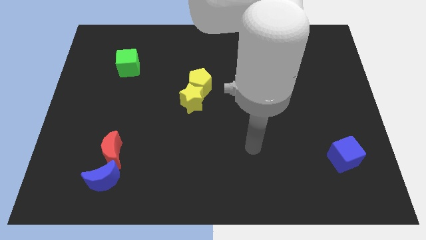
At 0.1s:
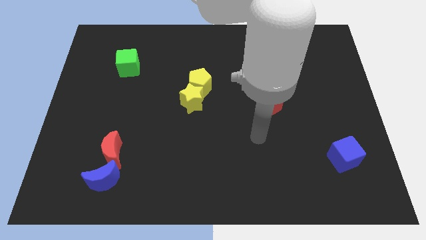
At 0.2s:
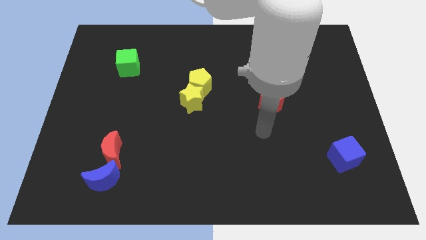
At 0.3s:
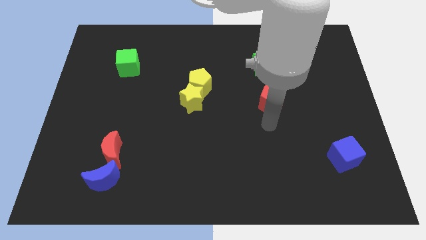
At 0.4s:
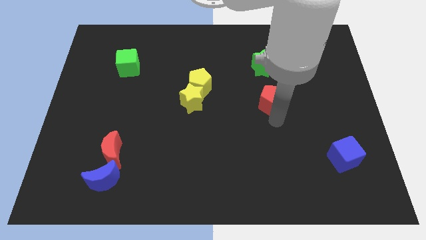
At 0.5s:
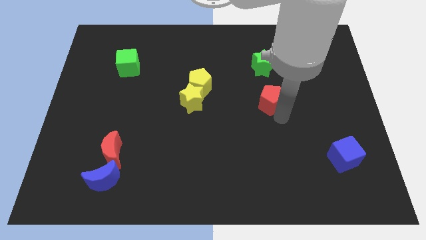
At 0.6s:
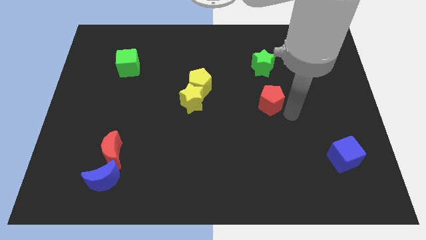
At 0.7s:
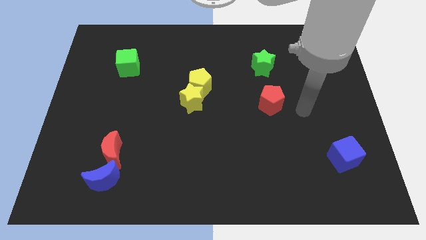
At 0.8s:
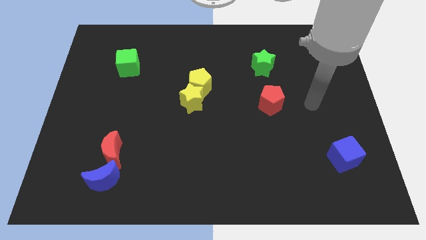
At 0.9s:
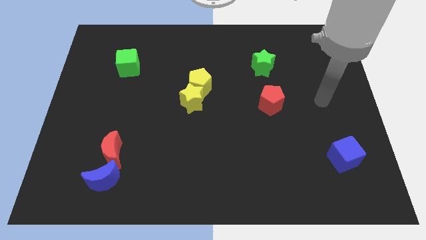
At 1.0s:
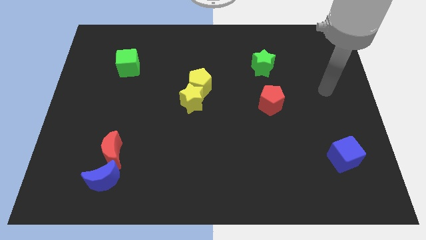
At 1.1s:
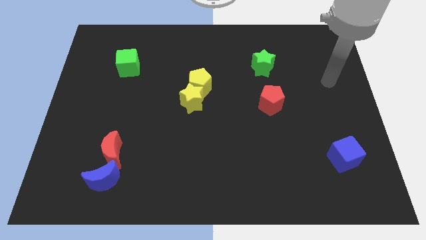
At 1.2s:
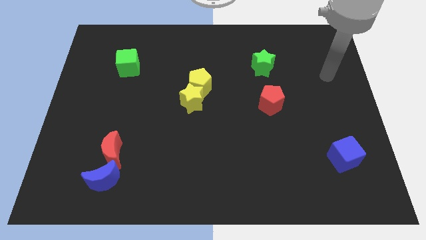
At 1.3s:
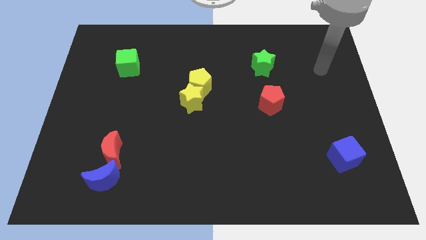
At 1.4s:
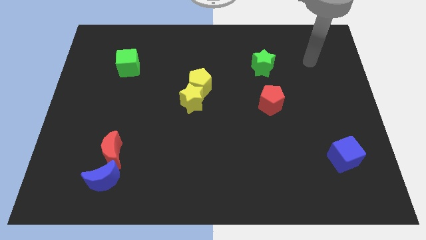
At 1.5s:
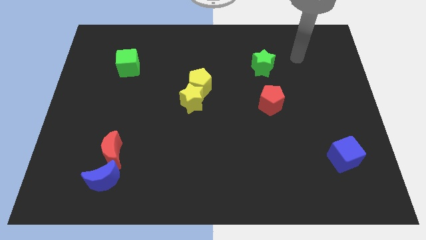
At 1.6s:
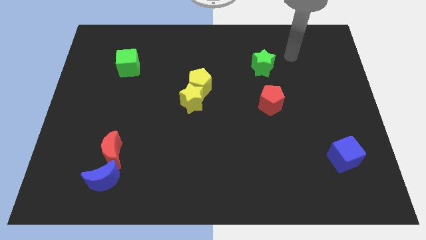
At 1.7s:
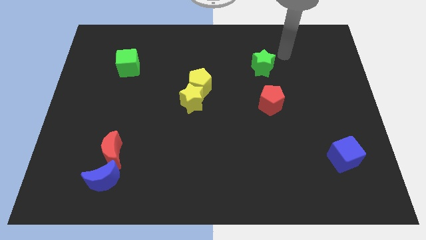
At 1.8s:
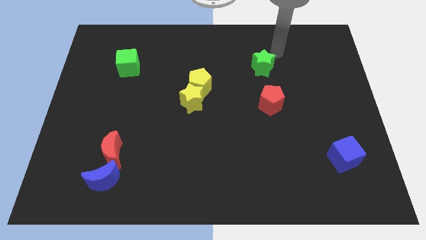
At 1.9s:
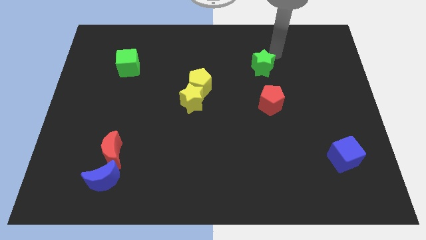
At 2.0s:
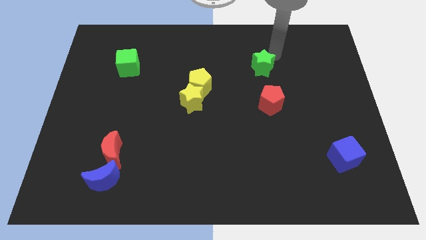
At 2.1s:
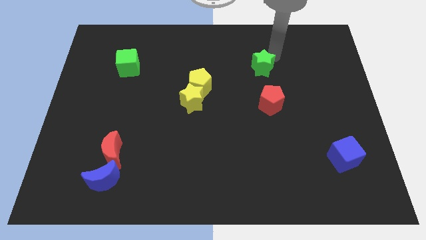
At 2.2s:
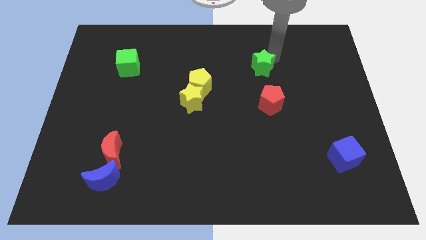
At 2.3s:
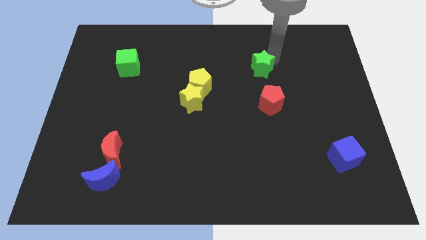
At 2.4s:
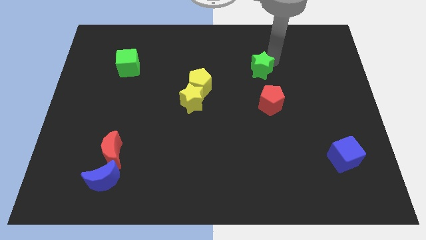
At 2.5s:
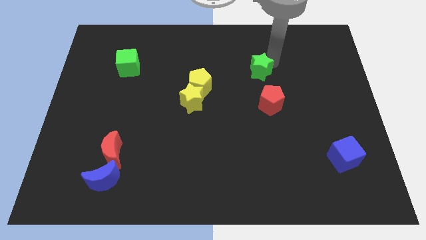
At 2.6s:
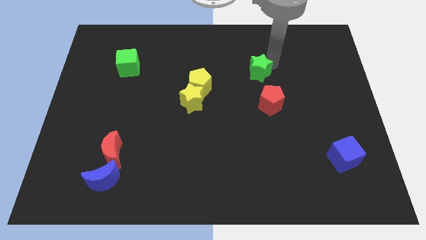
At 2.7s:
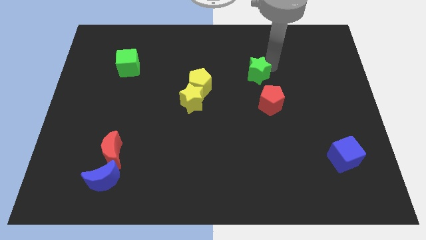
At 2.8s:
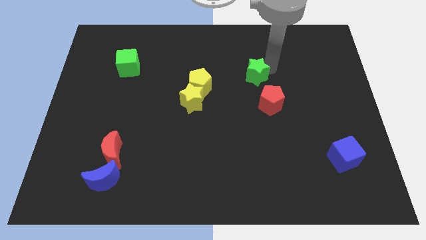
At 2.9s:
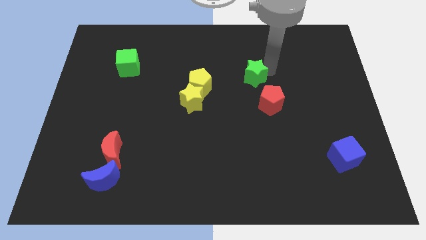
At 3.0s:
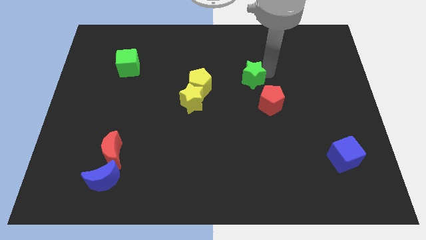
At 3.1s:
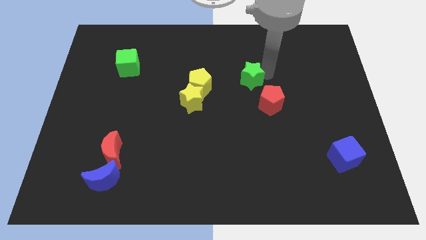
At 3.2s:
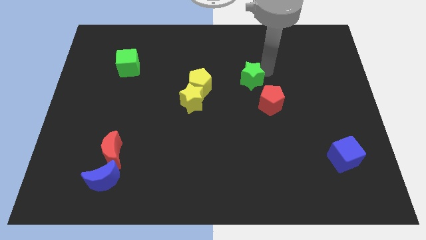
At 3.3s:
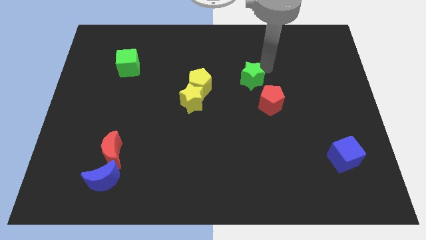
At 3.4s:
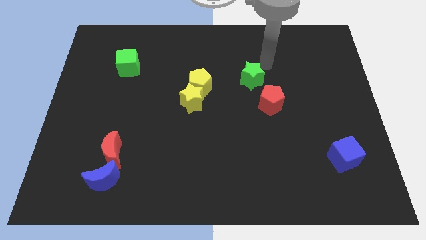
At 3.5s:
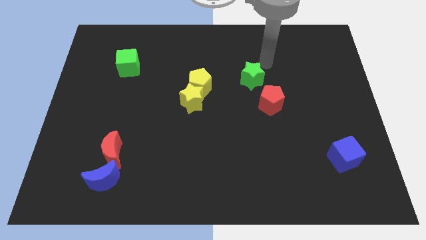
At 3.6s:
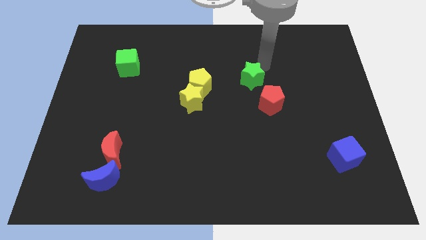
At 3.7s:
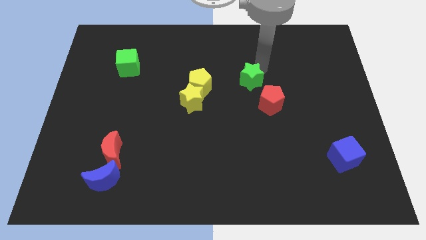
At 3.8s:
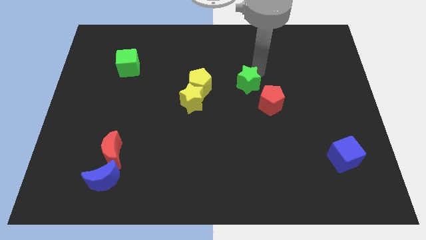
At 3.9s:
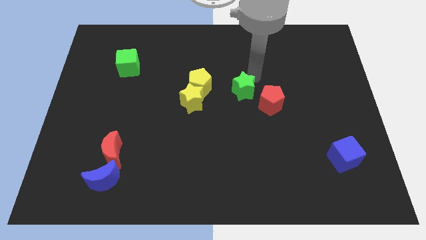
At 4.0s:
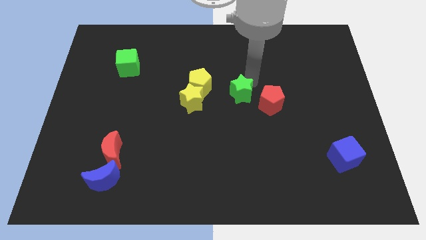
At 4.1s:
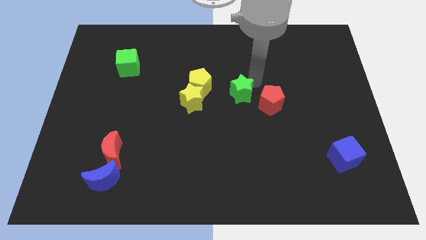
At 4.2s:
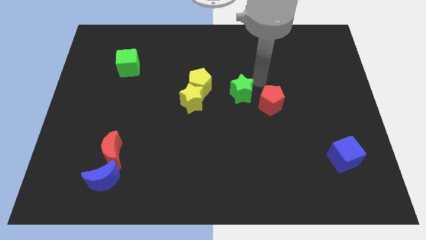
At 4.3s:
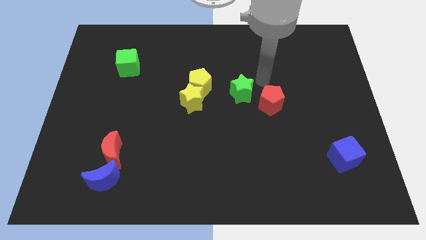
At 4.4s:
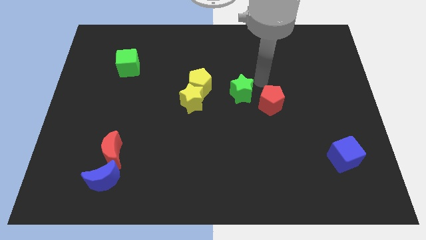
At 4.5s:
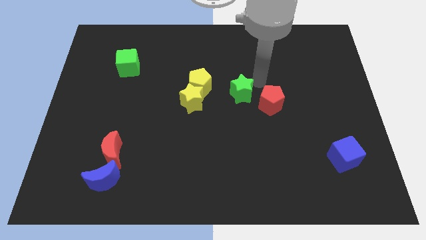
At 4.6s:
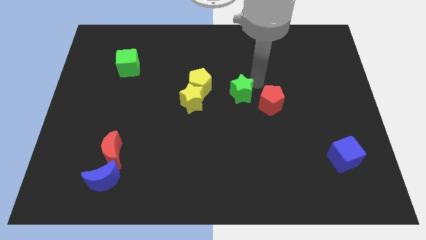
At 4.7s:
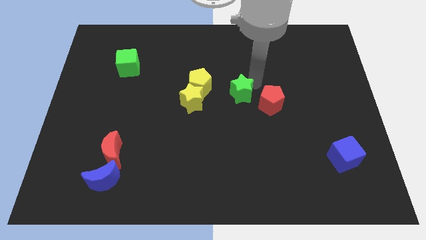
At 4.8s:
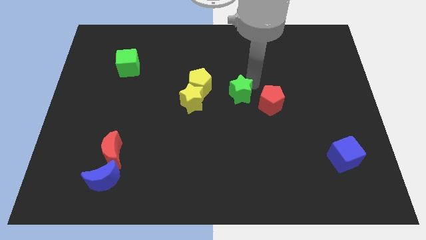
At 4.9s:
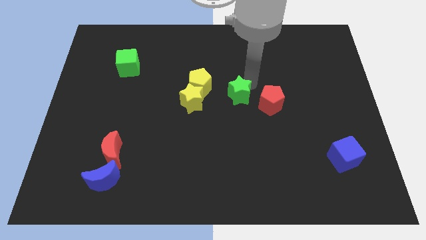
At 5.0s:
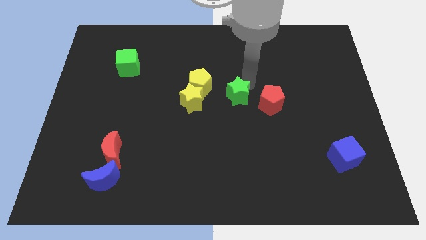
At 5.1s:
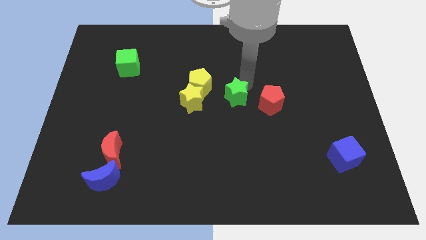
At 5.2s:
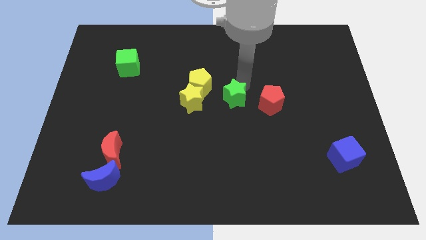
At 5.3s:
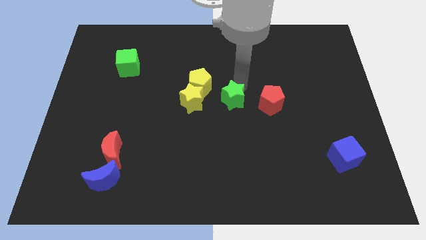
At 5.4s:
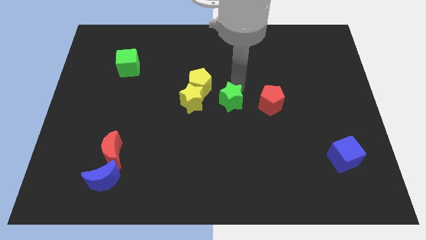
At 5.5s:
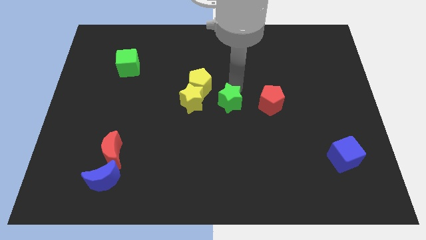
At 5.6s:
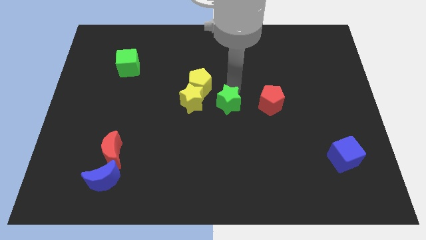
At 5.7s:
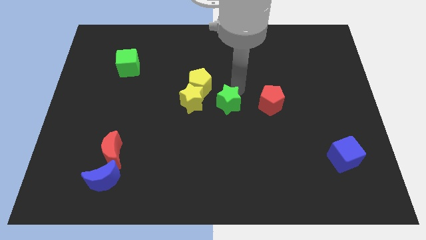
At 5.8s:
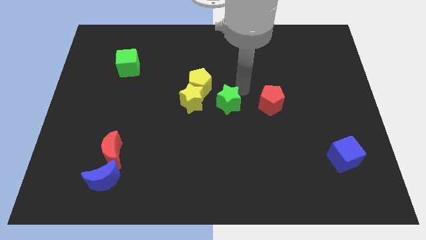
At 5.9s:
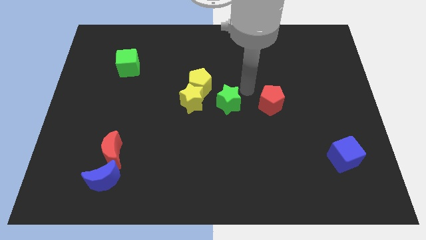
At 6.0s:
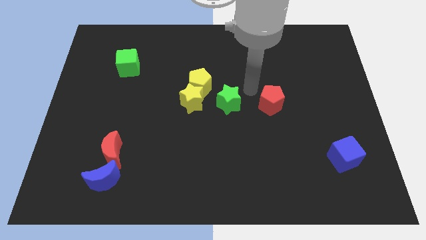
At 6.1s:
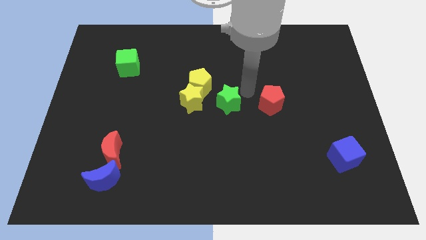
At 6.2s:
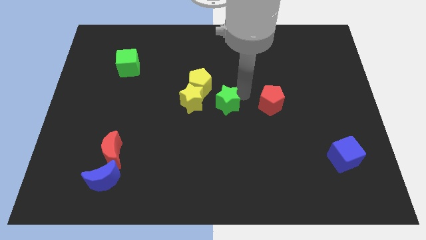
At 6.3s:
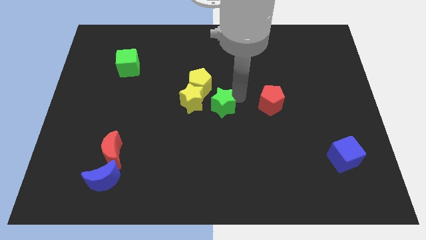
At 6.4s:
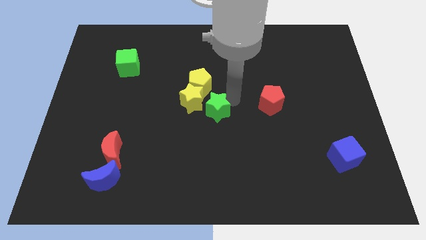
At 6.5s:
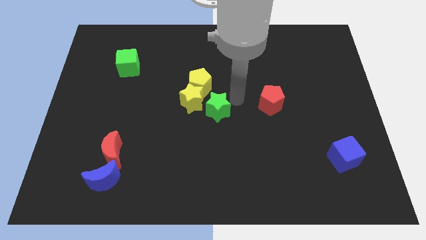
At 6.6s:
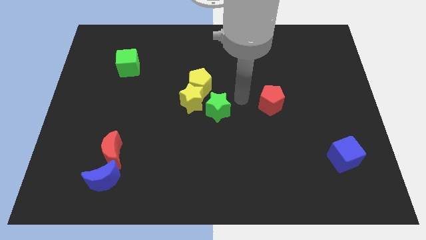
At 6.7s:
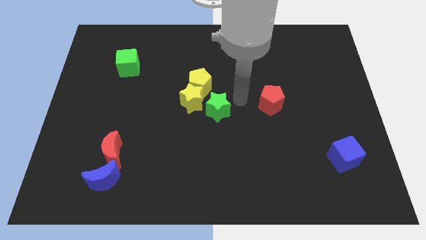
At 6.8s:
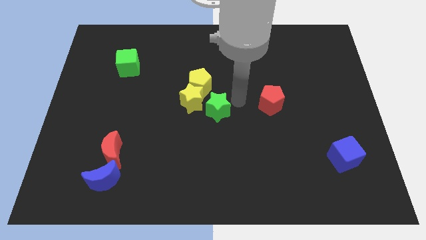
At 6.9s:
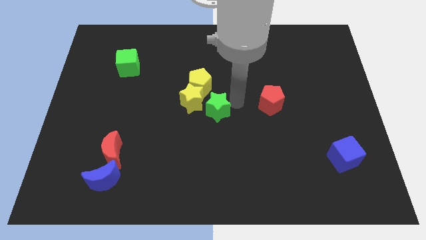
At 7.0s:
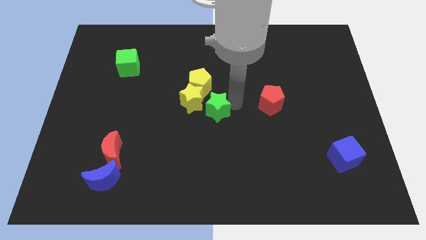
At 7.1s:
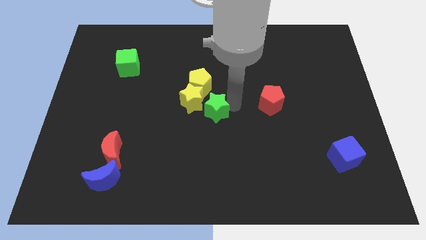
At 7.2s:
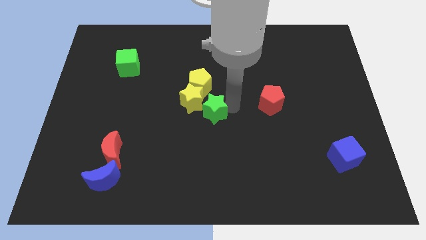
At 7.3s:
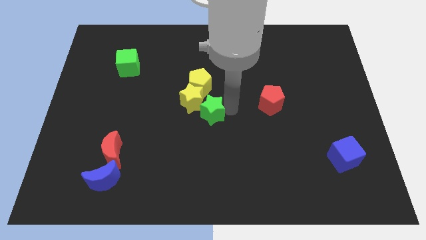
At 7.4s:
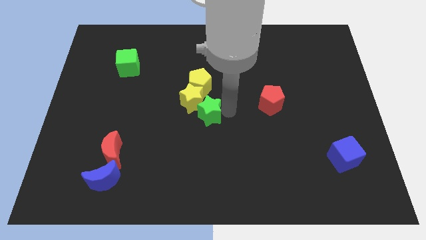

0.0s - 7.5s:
push the green star diagonally down and to the left
